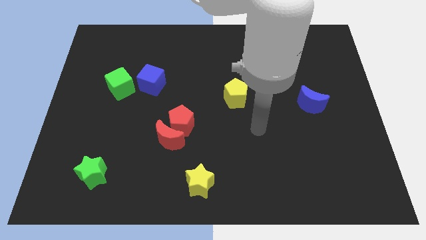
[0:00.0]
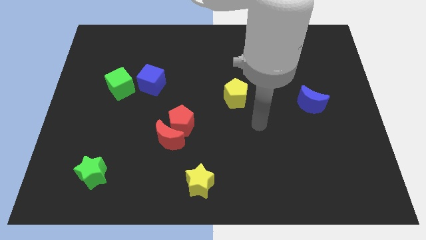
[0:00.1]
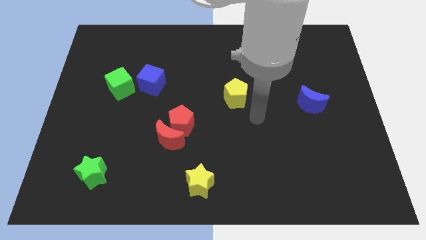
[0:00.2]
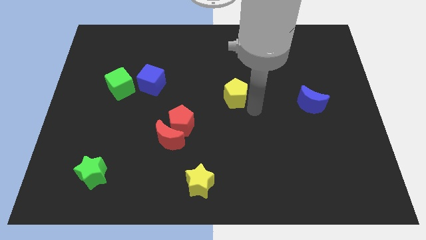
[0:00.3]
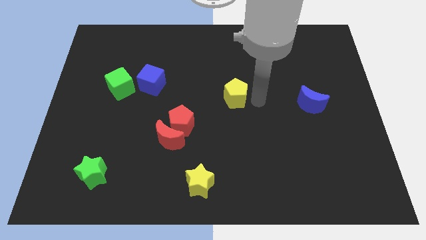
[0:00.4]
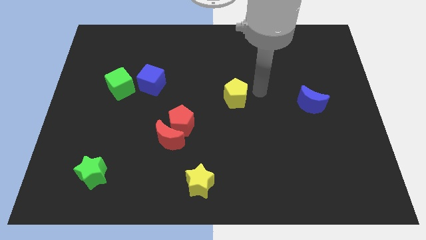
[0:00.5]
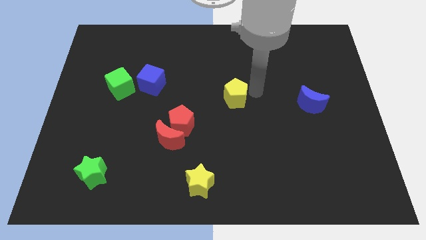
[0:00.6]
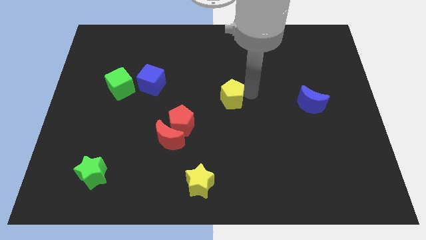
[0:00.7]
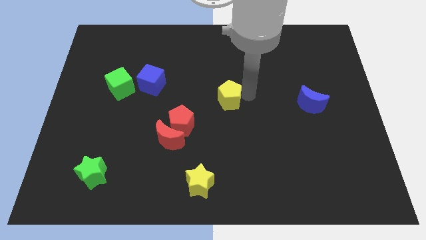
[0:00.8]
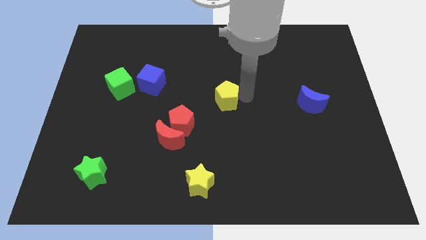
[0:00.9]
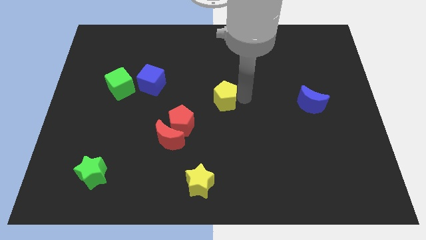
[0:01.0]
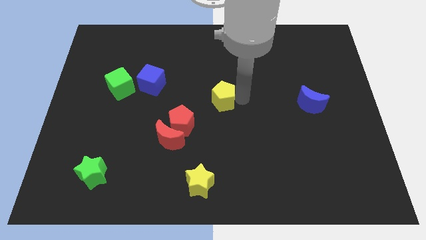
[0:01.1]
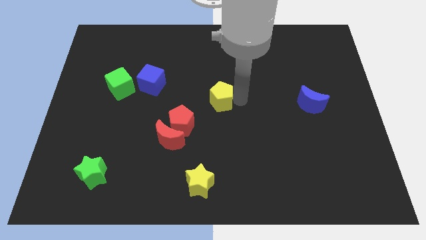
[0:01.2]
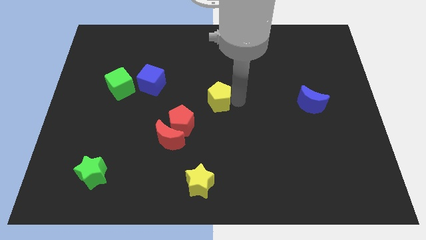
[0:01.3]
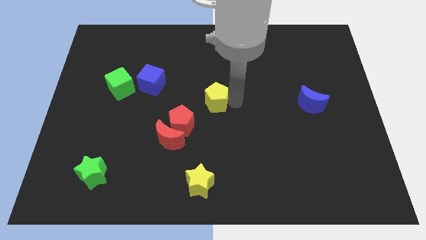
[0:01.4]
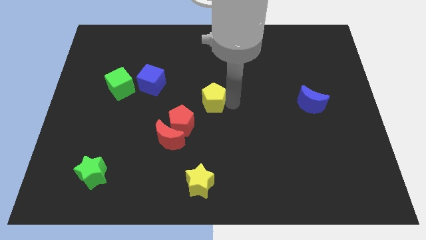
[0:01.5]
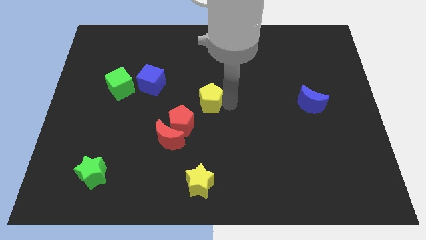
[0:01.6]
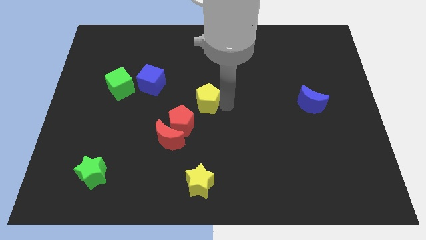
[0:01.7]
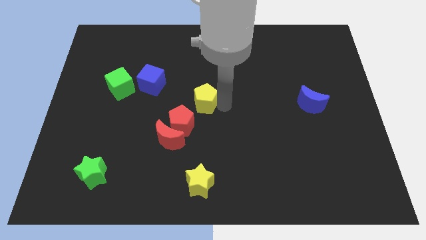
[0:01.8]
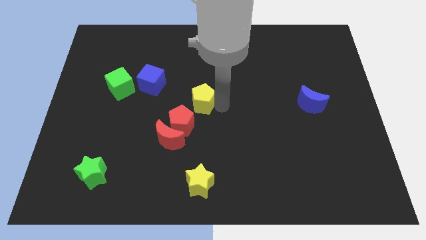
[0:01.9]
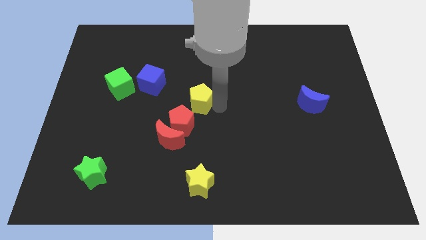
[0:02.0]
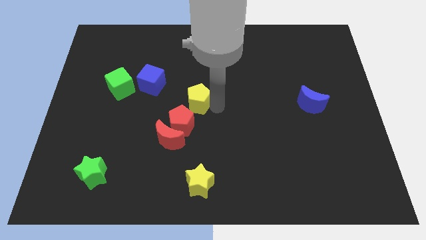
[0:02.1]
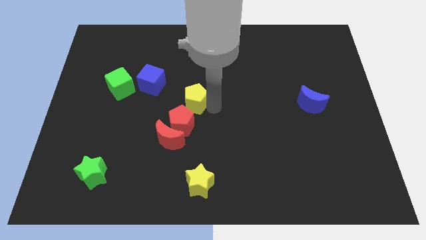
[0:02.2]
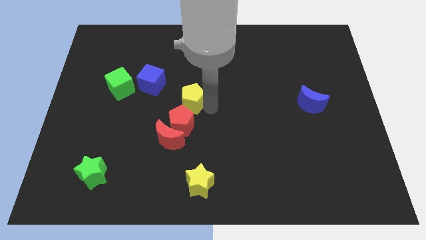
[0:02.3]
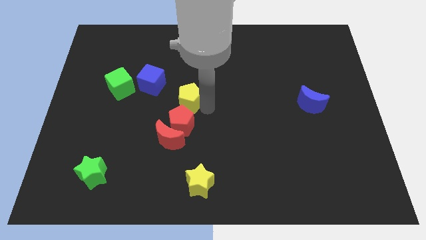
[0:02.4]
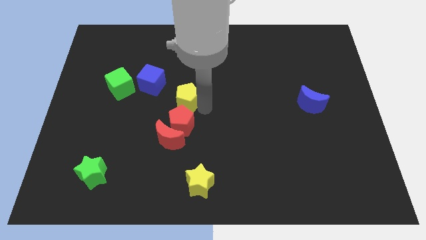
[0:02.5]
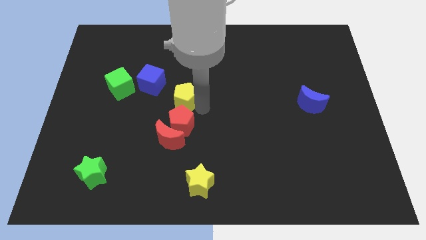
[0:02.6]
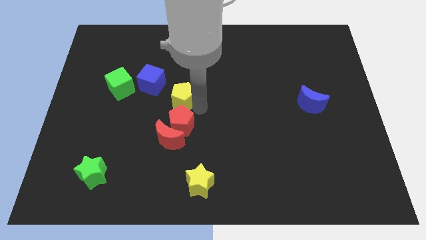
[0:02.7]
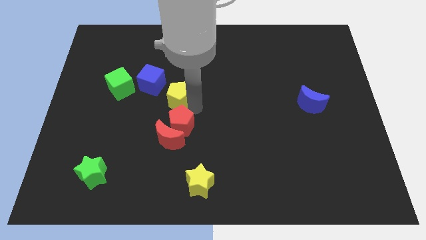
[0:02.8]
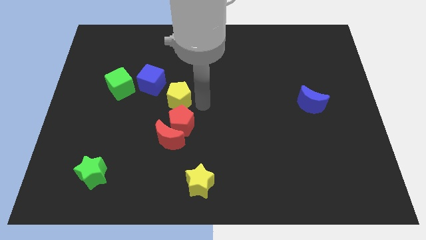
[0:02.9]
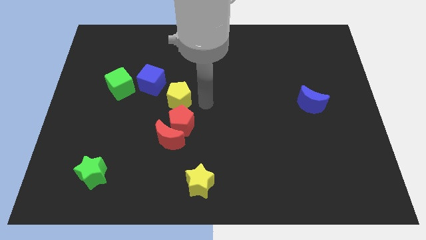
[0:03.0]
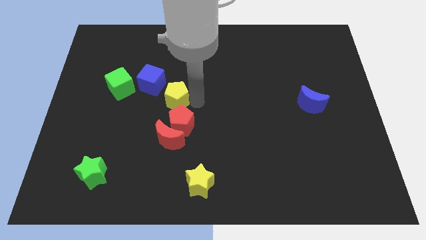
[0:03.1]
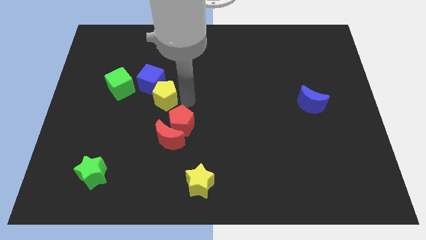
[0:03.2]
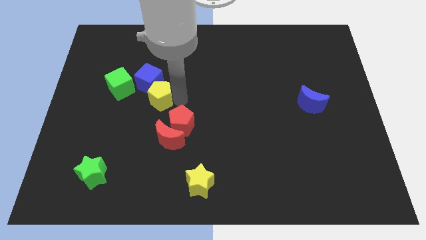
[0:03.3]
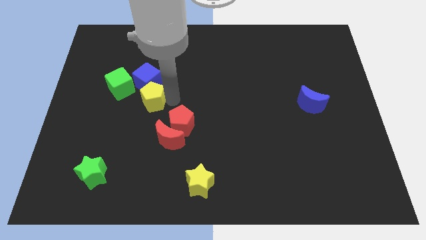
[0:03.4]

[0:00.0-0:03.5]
move the yellow pentagon to the left

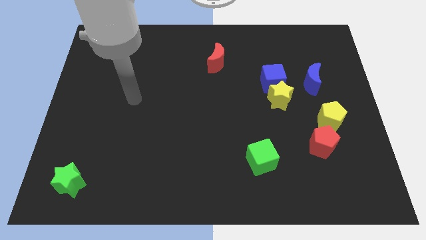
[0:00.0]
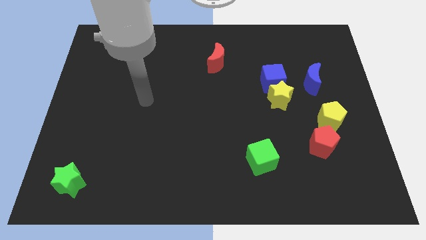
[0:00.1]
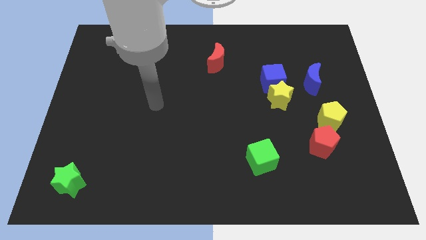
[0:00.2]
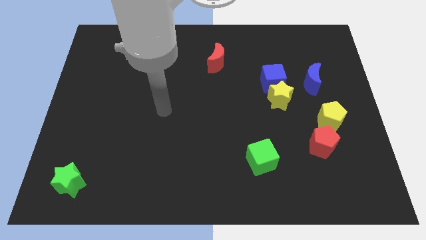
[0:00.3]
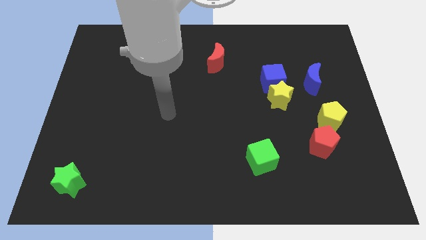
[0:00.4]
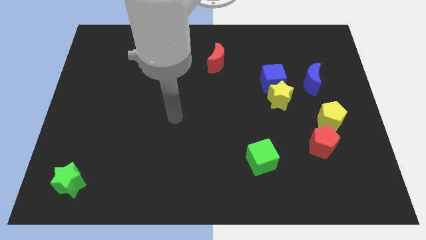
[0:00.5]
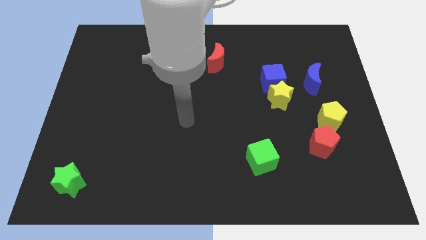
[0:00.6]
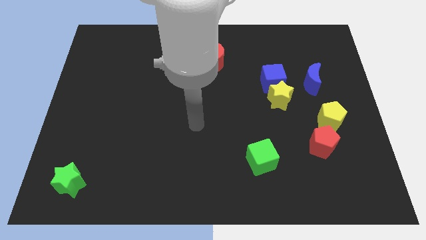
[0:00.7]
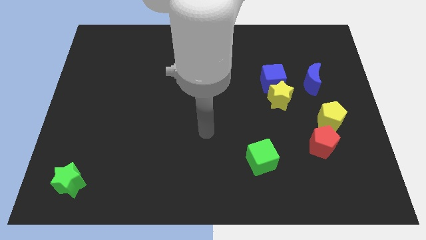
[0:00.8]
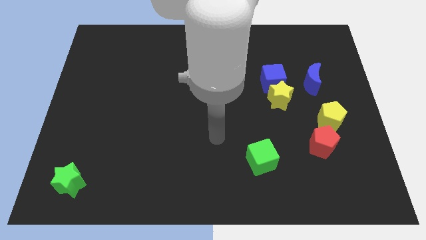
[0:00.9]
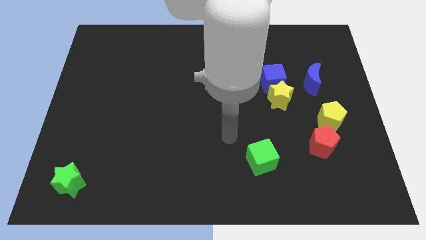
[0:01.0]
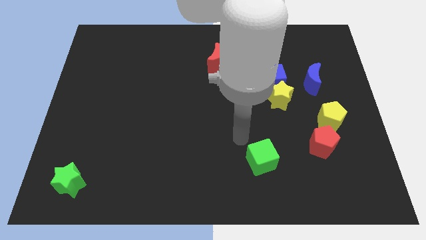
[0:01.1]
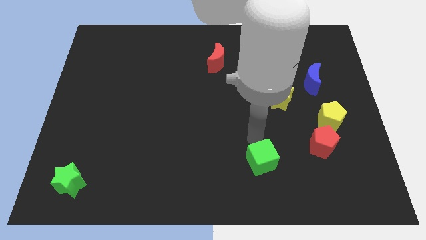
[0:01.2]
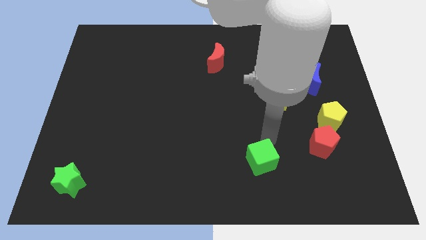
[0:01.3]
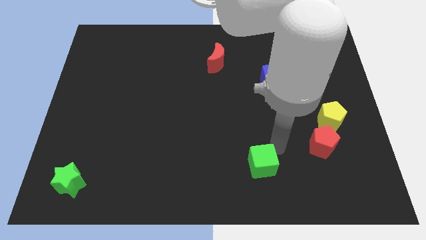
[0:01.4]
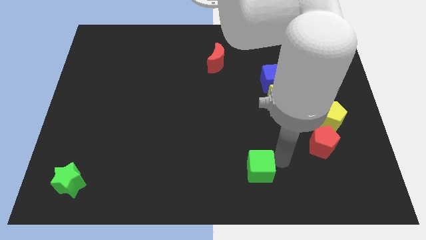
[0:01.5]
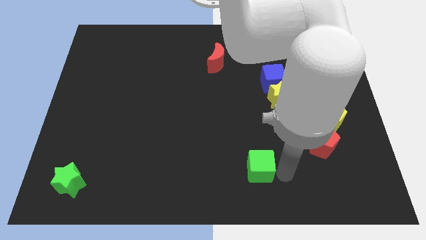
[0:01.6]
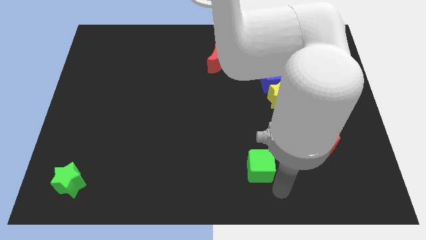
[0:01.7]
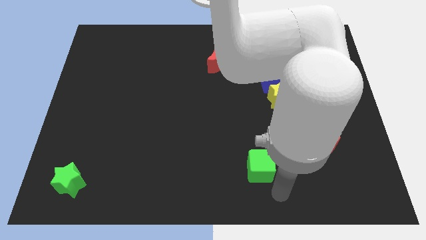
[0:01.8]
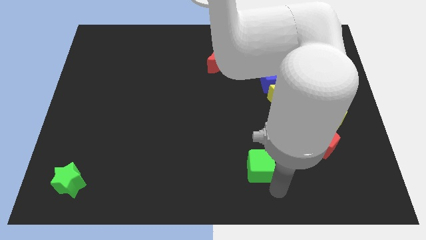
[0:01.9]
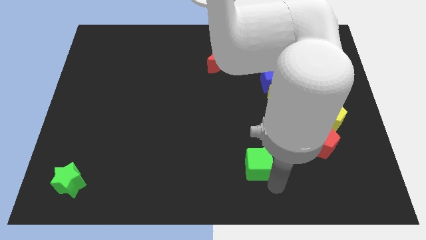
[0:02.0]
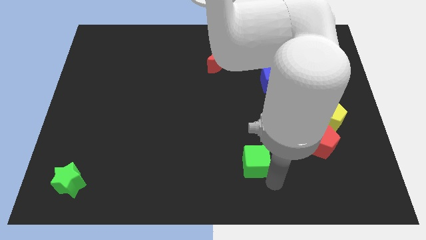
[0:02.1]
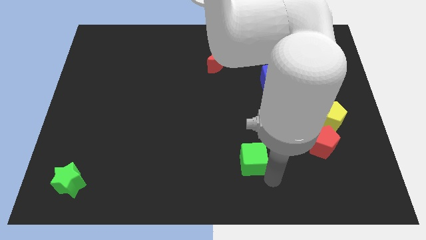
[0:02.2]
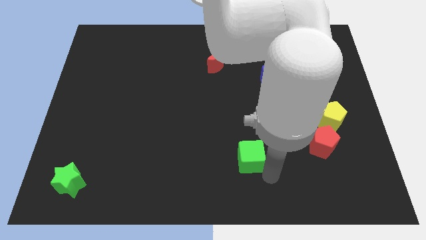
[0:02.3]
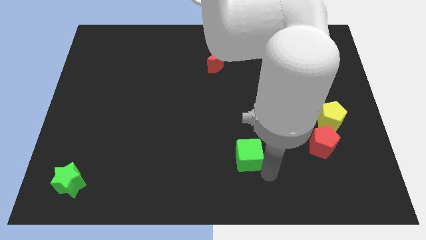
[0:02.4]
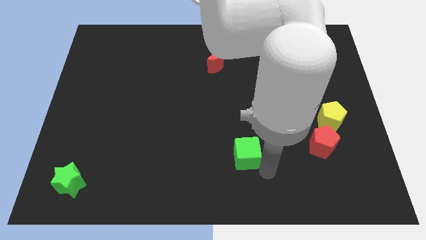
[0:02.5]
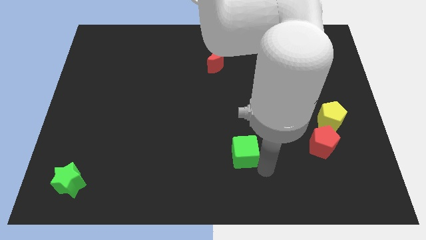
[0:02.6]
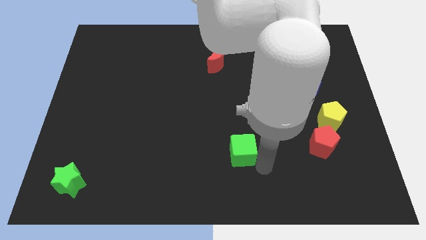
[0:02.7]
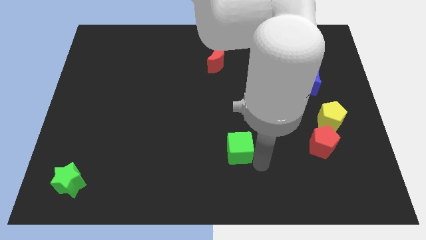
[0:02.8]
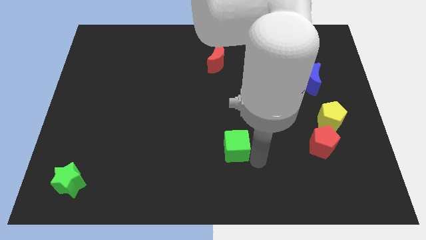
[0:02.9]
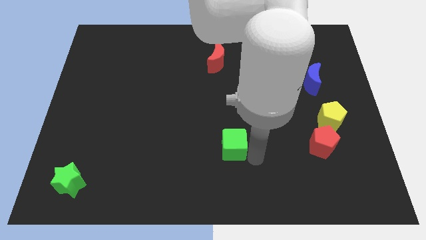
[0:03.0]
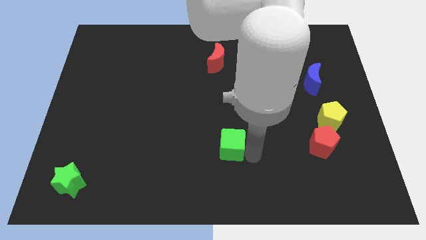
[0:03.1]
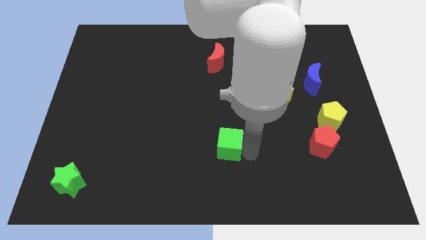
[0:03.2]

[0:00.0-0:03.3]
push the green cube diagonally upwards and to the left a little bit

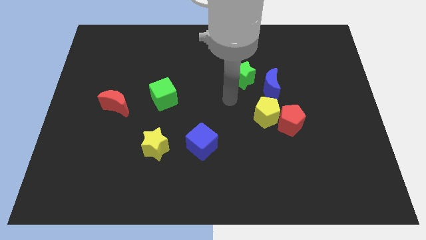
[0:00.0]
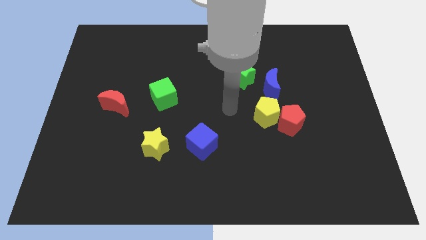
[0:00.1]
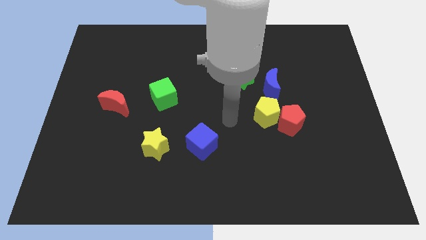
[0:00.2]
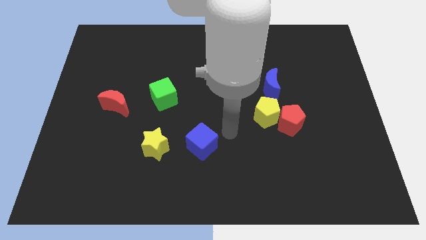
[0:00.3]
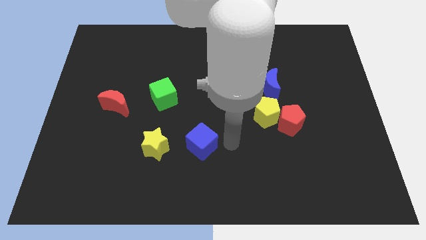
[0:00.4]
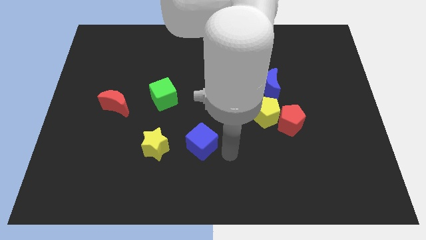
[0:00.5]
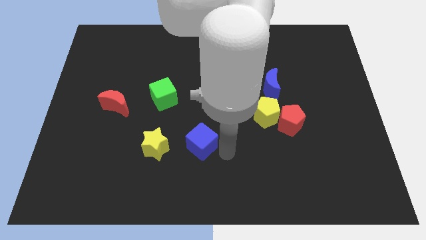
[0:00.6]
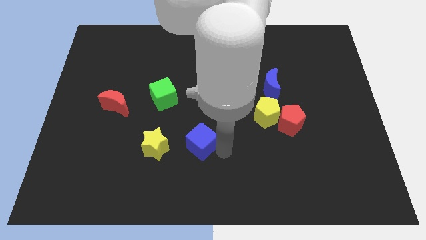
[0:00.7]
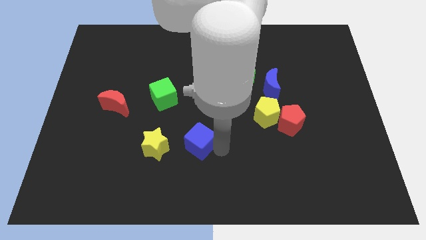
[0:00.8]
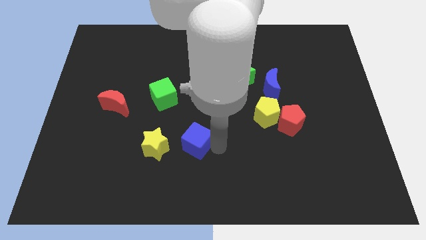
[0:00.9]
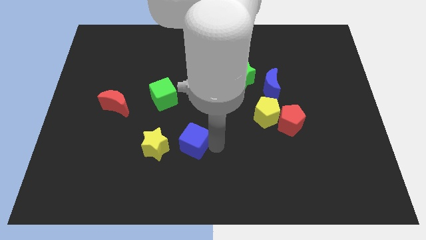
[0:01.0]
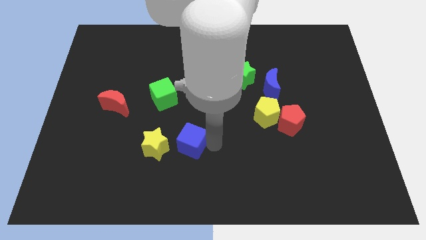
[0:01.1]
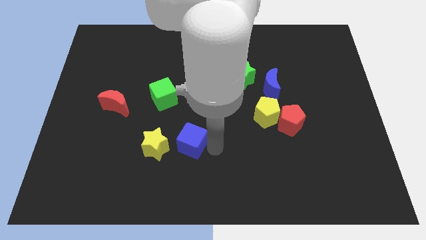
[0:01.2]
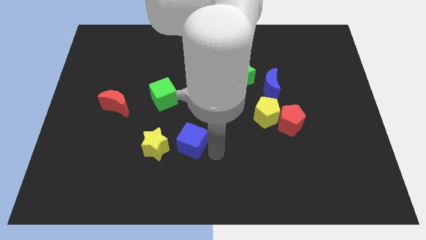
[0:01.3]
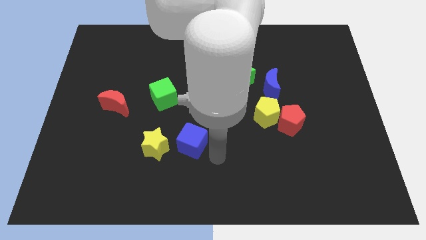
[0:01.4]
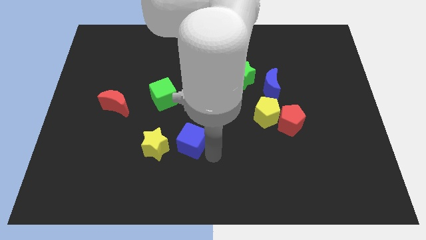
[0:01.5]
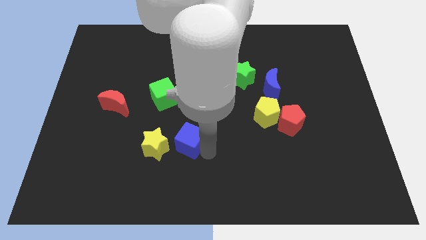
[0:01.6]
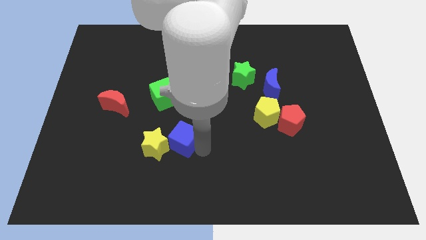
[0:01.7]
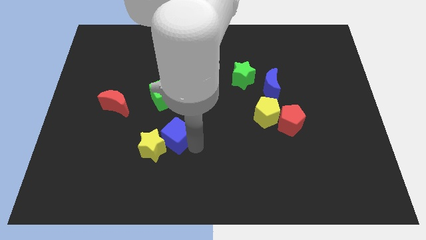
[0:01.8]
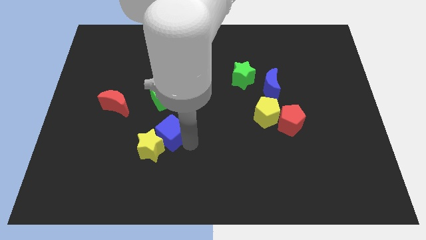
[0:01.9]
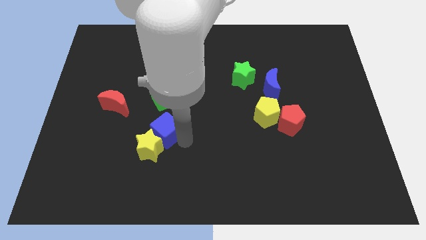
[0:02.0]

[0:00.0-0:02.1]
slightly slide the blue cube left
